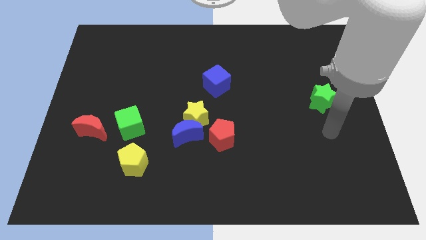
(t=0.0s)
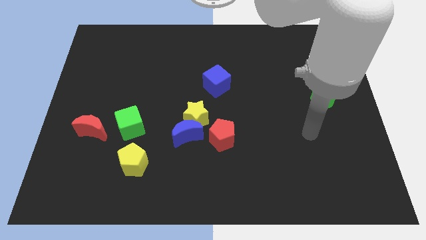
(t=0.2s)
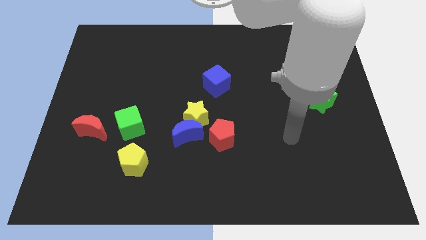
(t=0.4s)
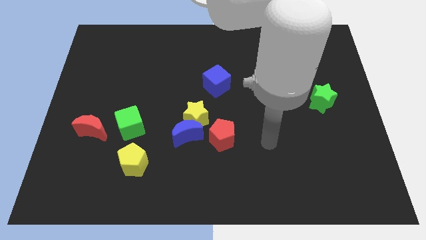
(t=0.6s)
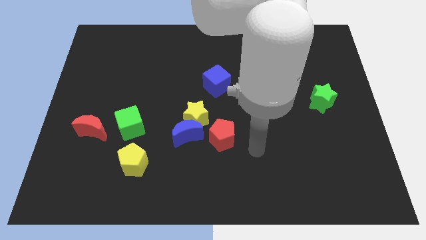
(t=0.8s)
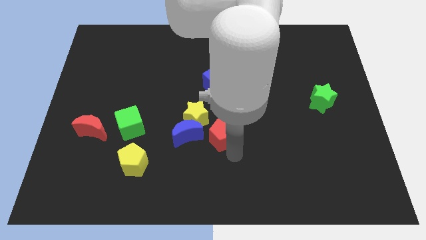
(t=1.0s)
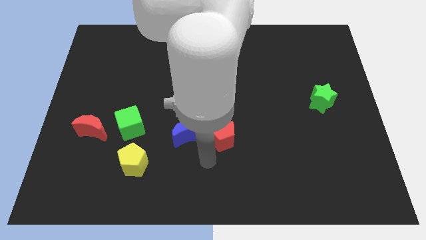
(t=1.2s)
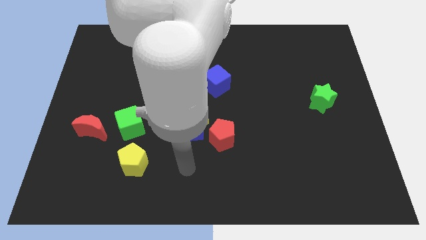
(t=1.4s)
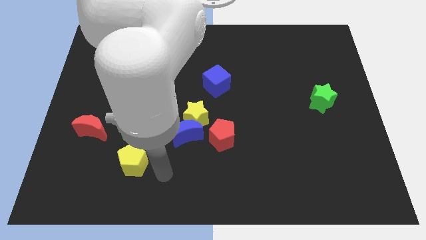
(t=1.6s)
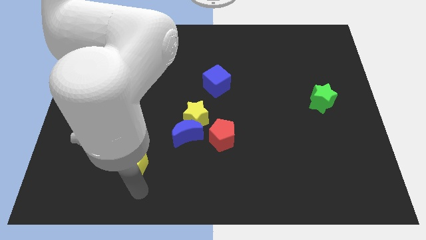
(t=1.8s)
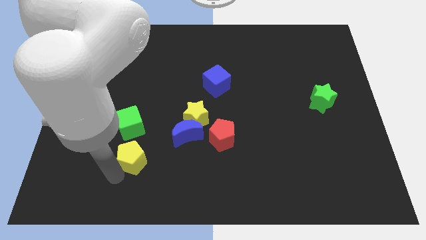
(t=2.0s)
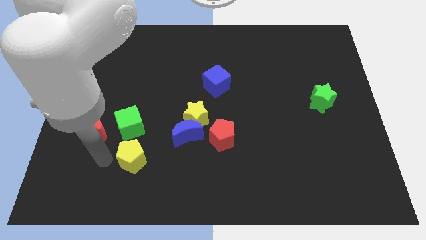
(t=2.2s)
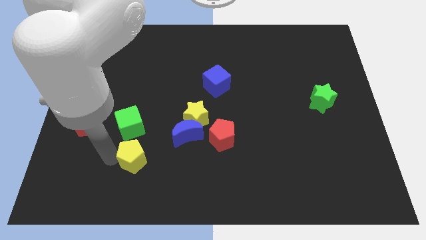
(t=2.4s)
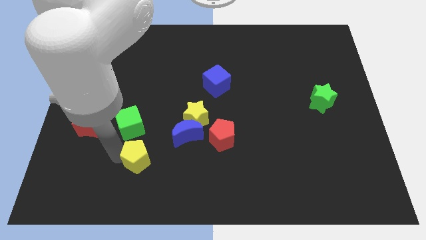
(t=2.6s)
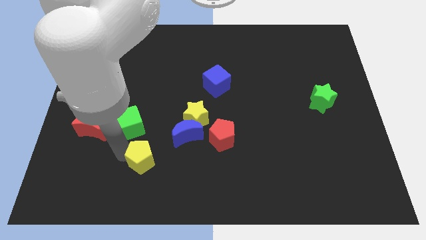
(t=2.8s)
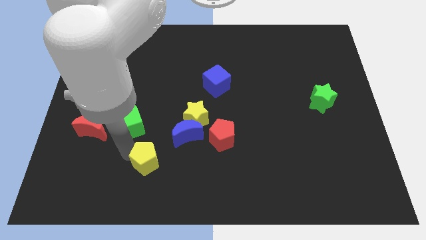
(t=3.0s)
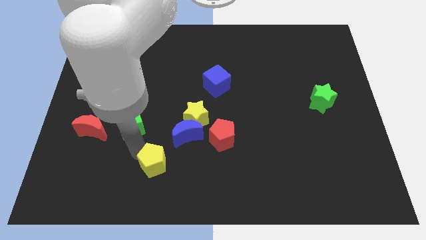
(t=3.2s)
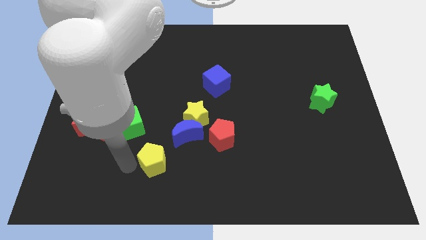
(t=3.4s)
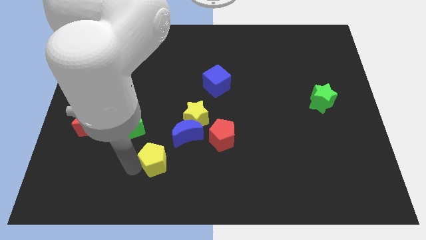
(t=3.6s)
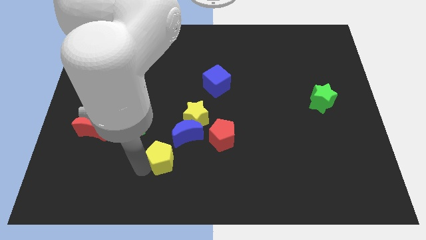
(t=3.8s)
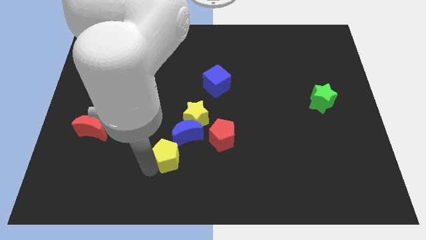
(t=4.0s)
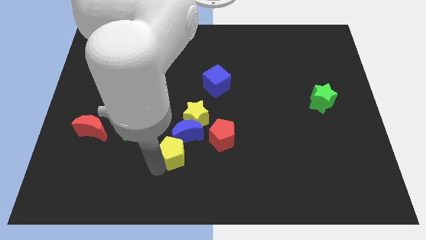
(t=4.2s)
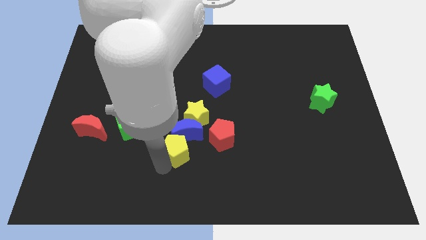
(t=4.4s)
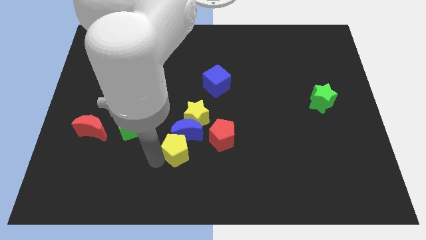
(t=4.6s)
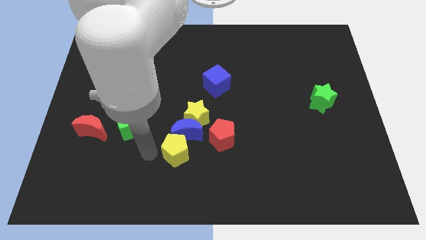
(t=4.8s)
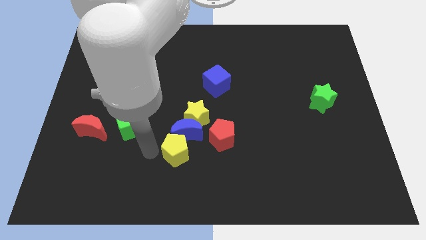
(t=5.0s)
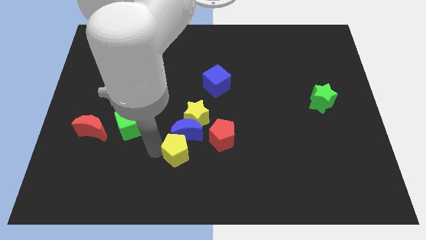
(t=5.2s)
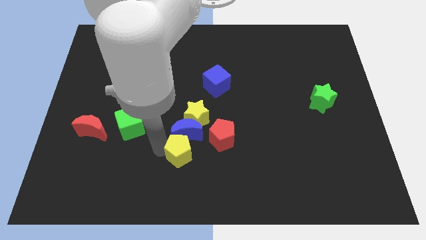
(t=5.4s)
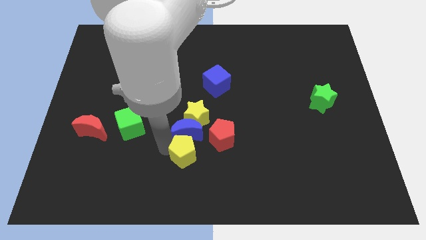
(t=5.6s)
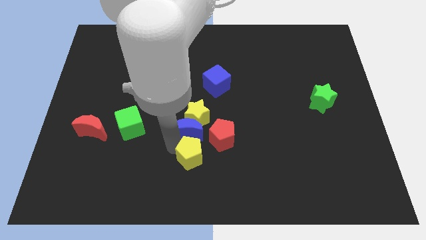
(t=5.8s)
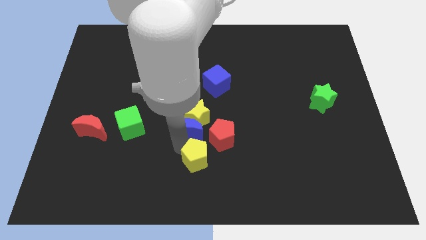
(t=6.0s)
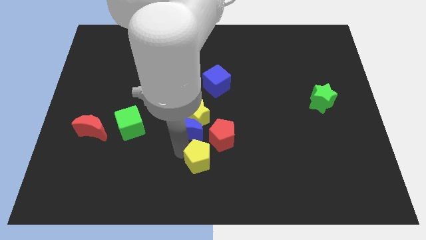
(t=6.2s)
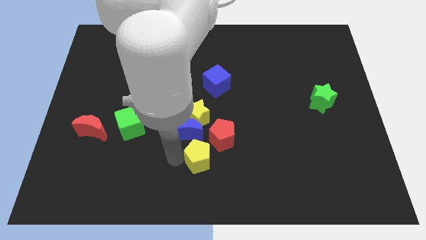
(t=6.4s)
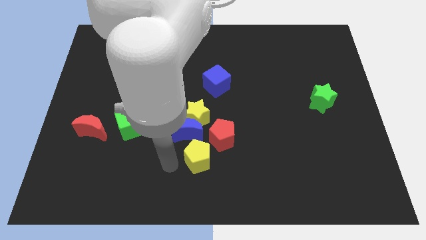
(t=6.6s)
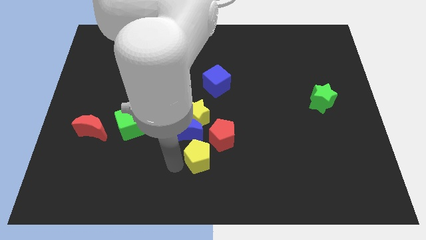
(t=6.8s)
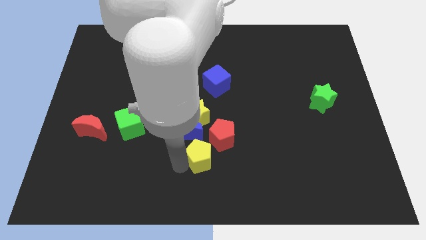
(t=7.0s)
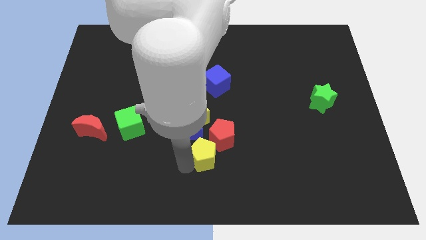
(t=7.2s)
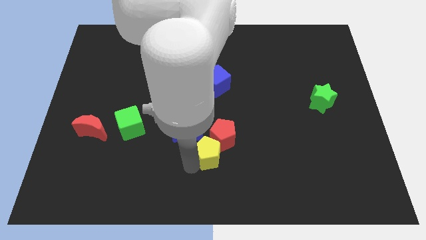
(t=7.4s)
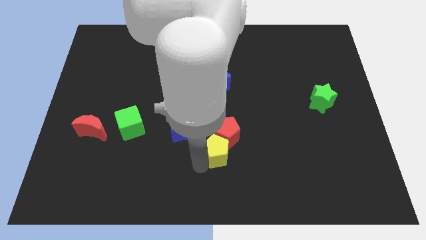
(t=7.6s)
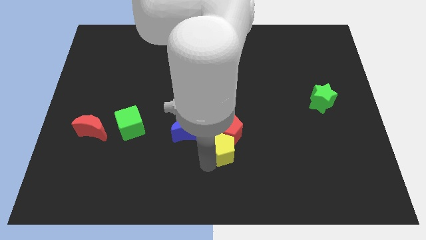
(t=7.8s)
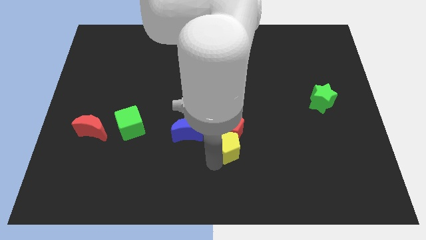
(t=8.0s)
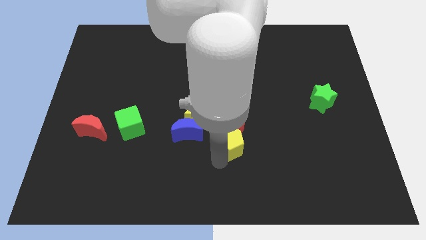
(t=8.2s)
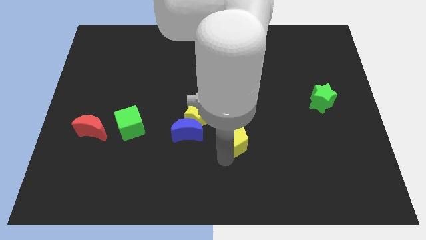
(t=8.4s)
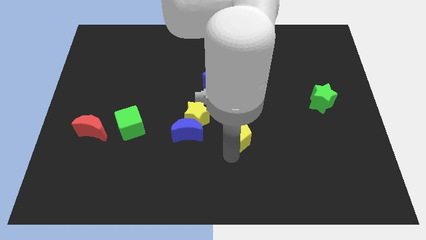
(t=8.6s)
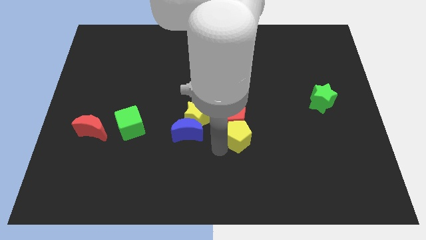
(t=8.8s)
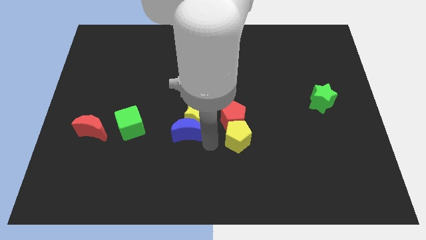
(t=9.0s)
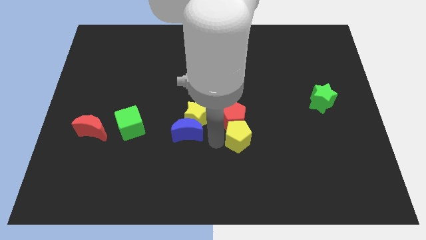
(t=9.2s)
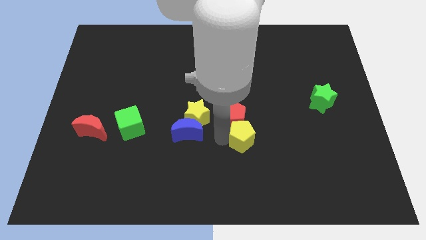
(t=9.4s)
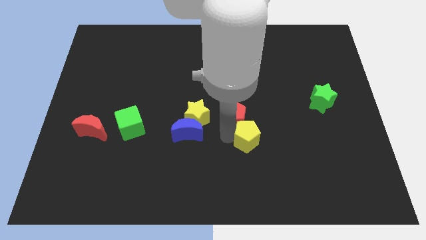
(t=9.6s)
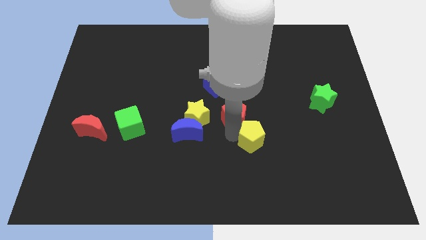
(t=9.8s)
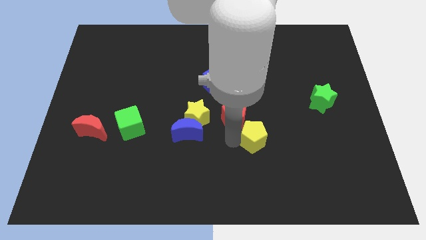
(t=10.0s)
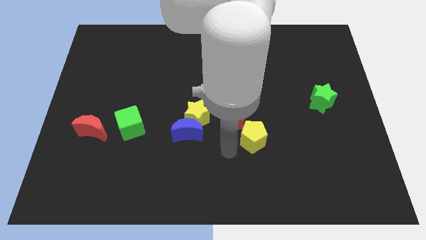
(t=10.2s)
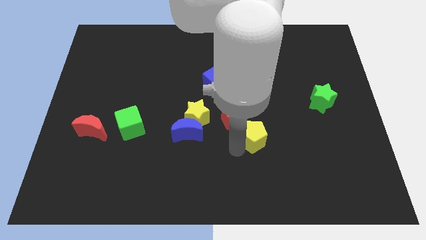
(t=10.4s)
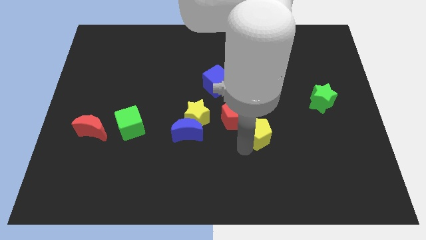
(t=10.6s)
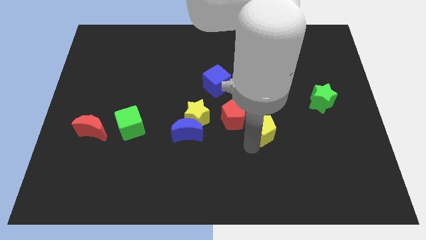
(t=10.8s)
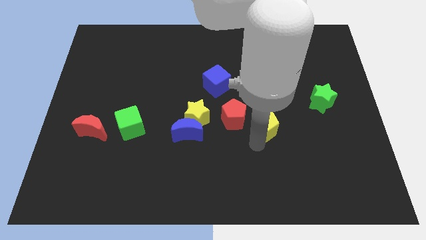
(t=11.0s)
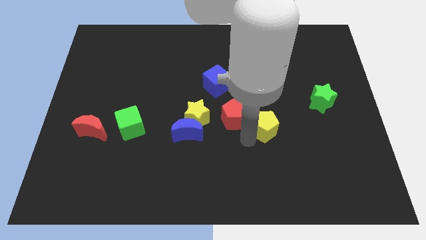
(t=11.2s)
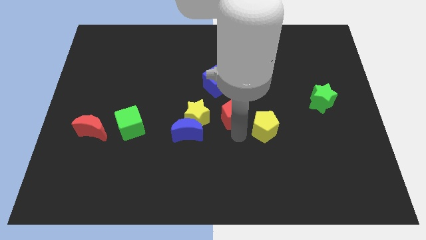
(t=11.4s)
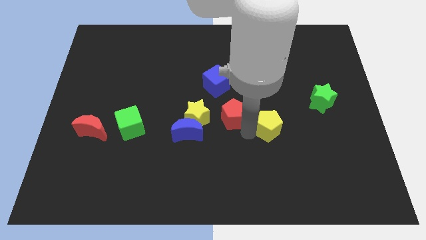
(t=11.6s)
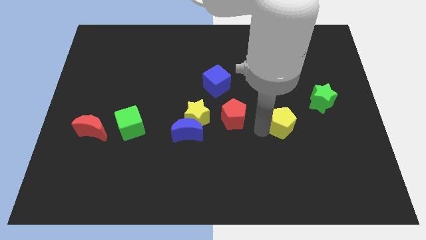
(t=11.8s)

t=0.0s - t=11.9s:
push the yellow pentagon diagonally down and to the left of the green star

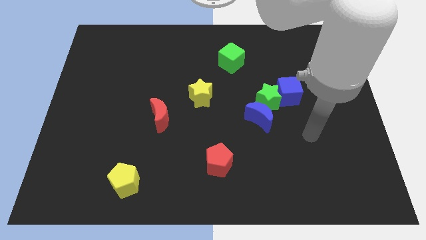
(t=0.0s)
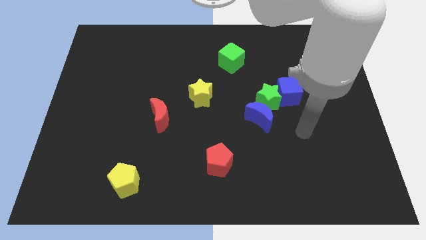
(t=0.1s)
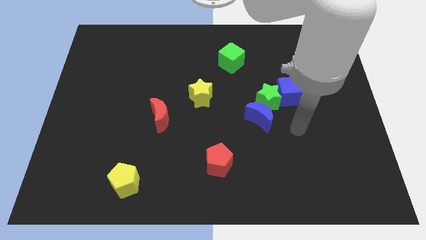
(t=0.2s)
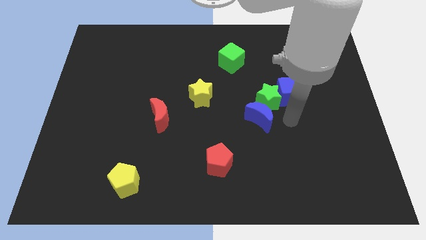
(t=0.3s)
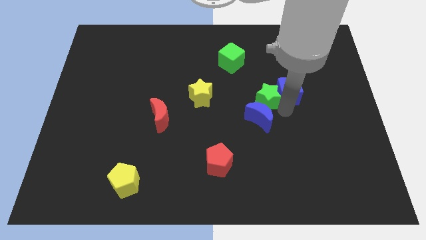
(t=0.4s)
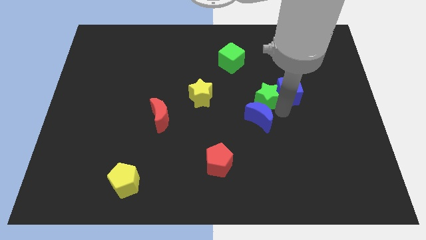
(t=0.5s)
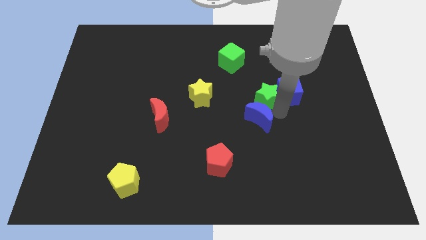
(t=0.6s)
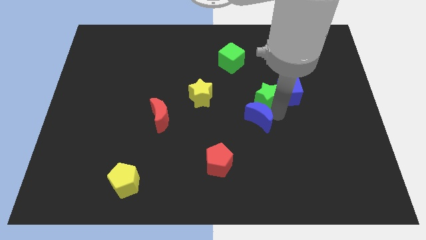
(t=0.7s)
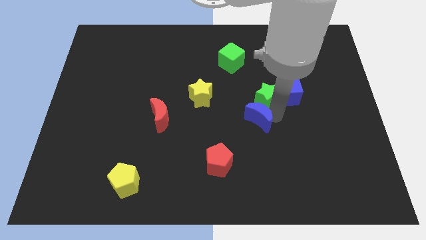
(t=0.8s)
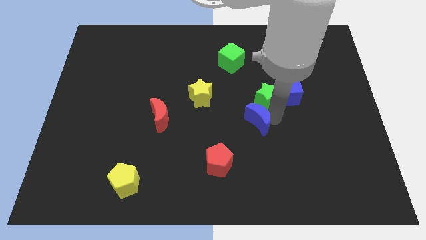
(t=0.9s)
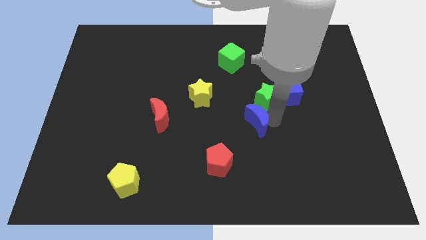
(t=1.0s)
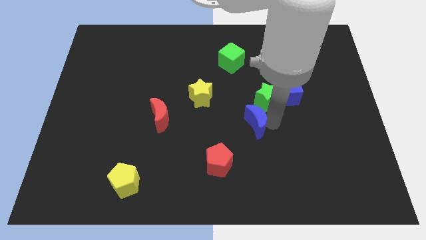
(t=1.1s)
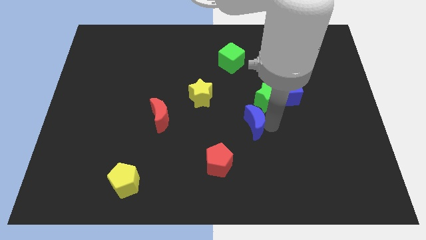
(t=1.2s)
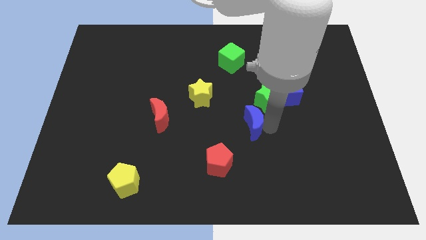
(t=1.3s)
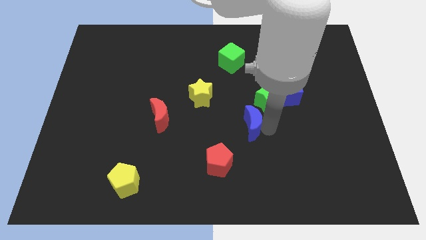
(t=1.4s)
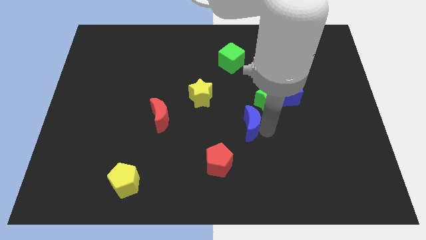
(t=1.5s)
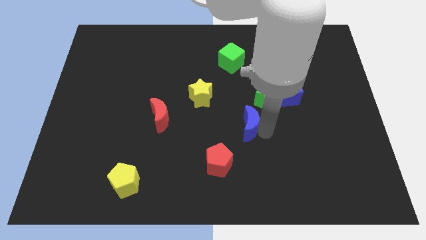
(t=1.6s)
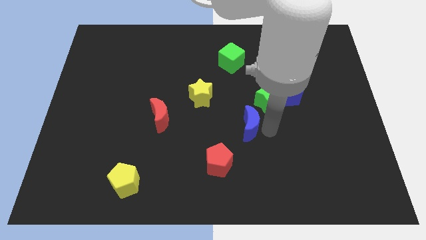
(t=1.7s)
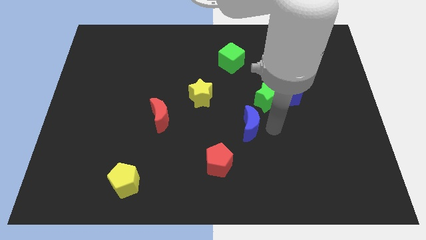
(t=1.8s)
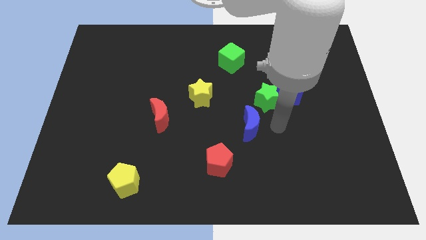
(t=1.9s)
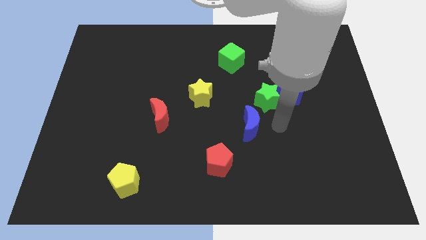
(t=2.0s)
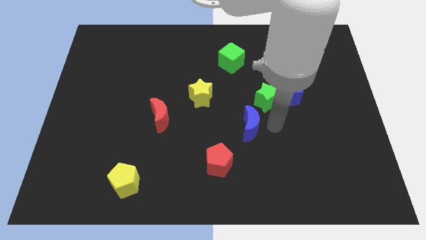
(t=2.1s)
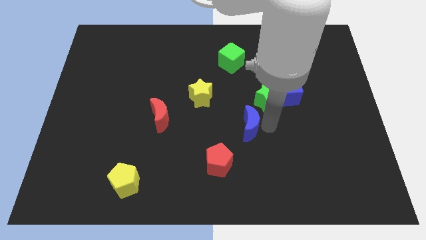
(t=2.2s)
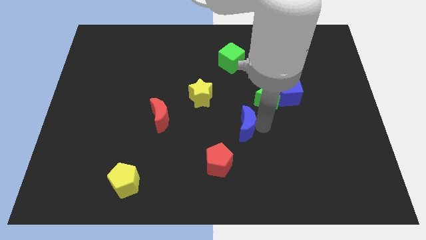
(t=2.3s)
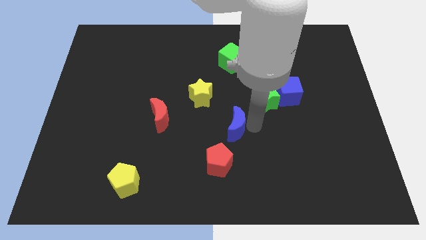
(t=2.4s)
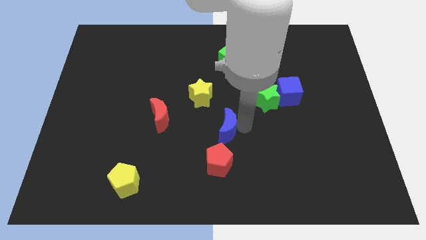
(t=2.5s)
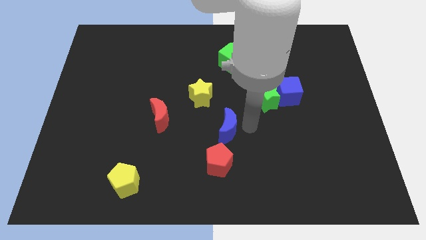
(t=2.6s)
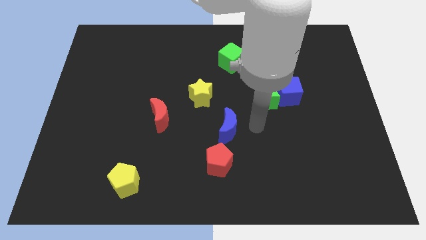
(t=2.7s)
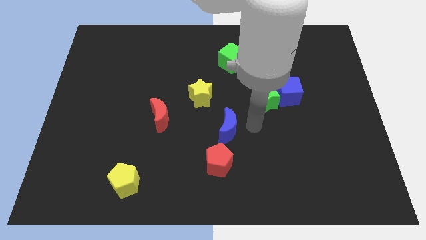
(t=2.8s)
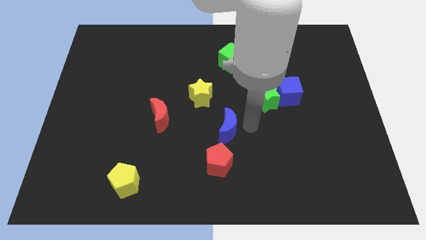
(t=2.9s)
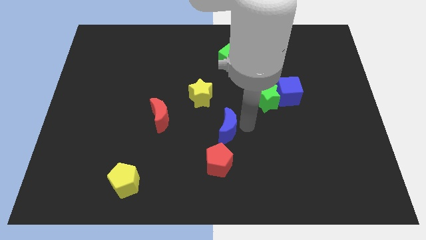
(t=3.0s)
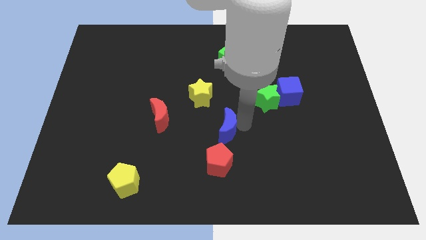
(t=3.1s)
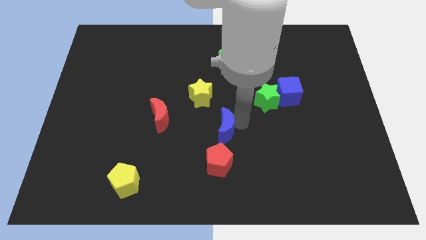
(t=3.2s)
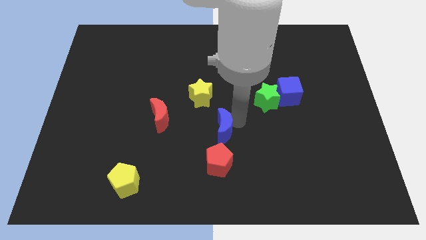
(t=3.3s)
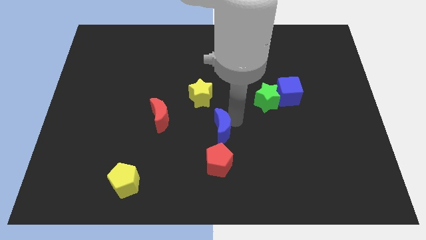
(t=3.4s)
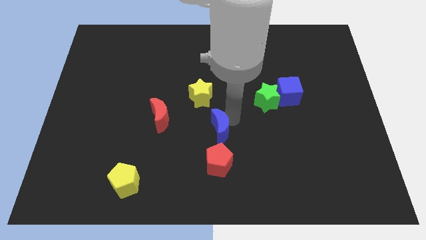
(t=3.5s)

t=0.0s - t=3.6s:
put the blue moon to the bottom of the yellow star
